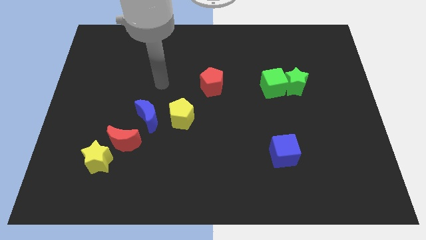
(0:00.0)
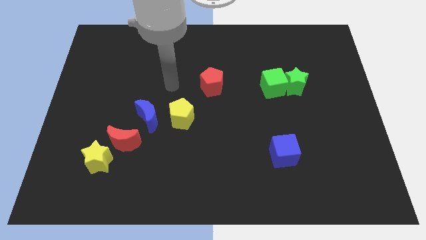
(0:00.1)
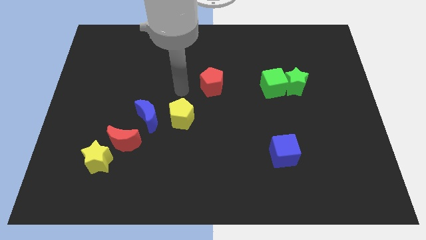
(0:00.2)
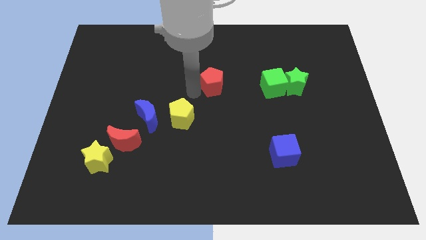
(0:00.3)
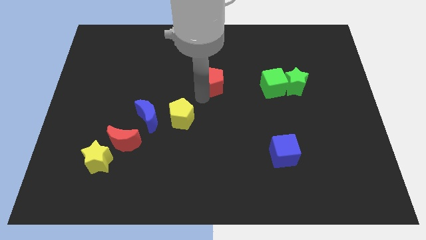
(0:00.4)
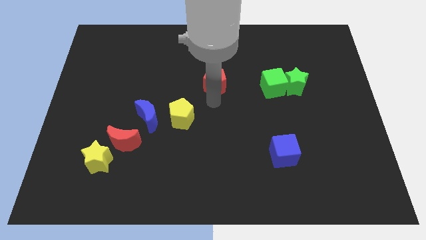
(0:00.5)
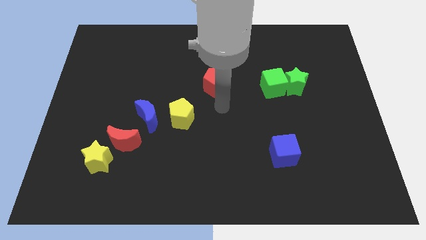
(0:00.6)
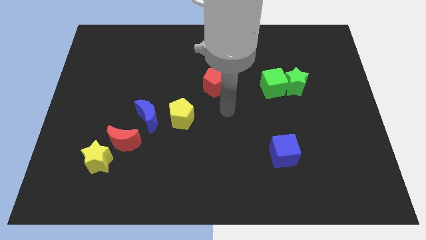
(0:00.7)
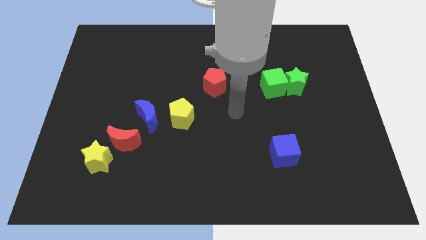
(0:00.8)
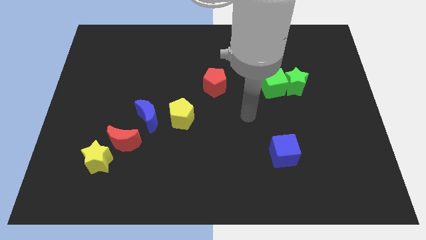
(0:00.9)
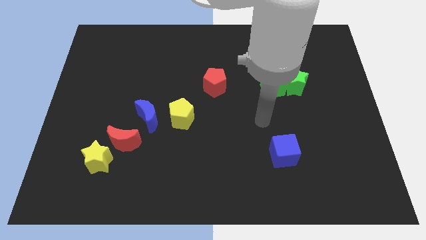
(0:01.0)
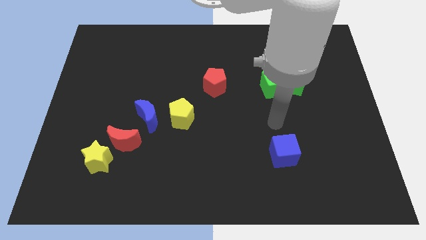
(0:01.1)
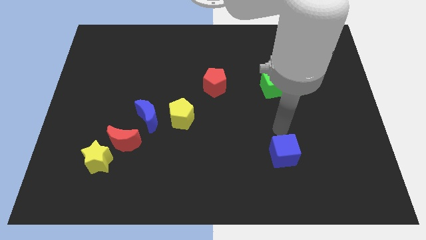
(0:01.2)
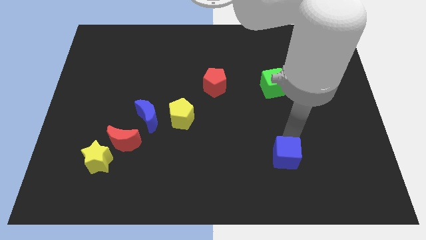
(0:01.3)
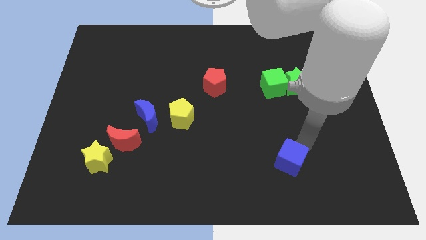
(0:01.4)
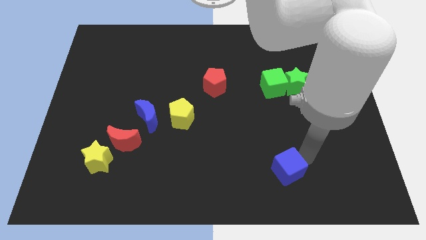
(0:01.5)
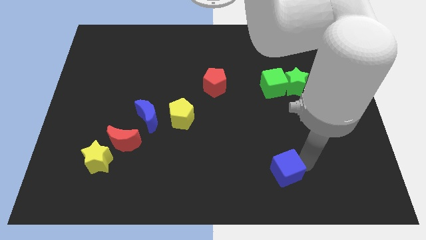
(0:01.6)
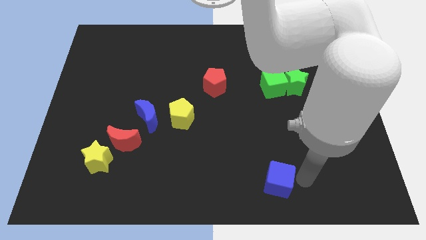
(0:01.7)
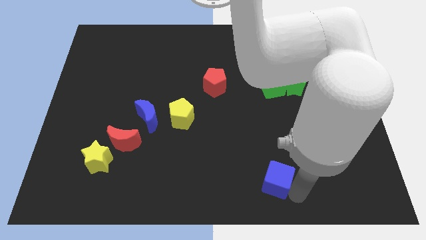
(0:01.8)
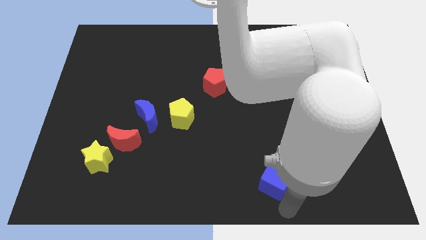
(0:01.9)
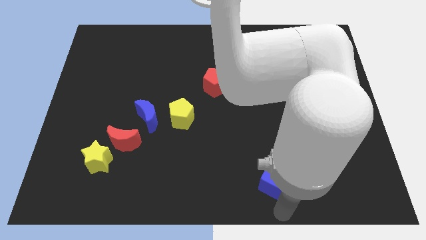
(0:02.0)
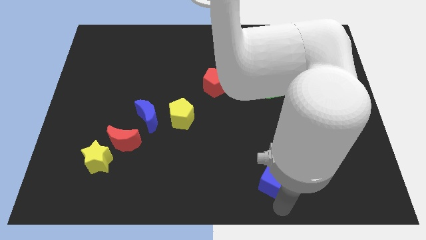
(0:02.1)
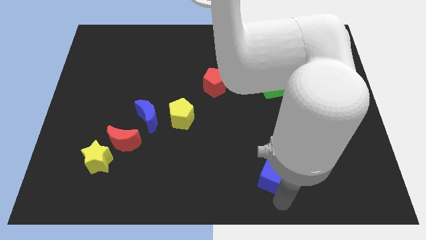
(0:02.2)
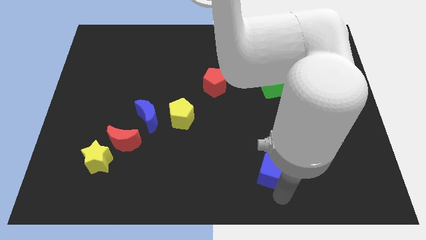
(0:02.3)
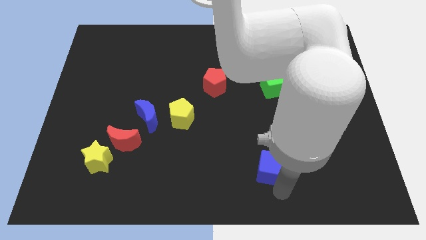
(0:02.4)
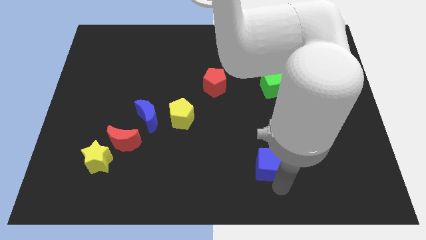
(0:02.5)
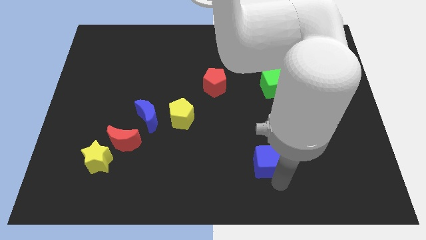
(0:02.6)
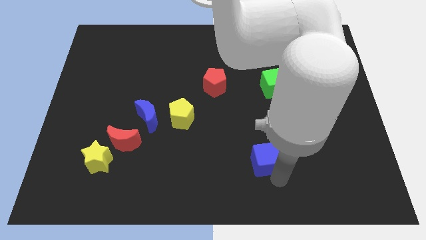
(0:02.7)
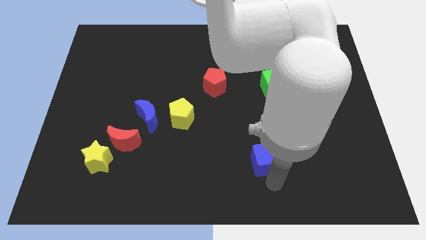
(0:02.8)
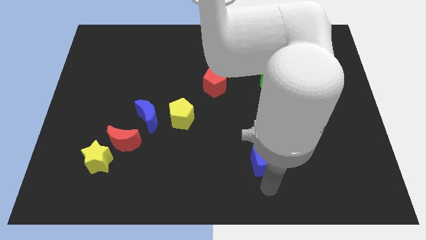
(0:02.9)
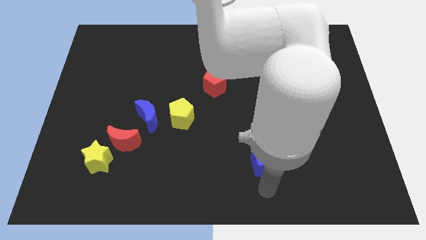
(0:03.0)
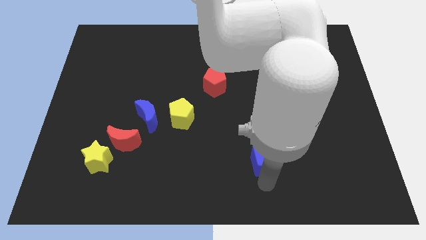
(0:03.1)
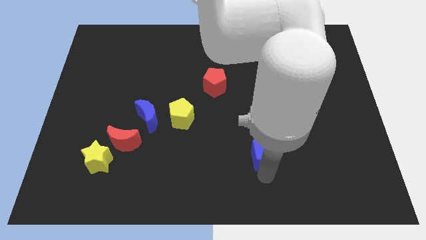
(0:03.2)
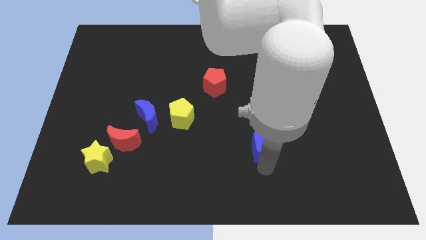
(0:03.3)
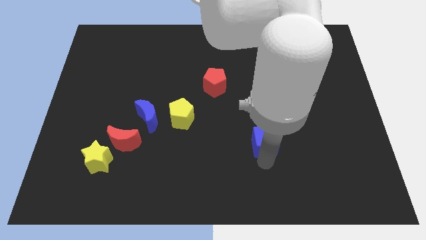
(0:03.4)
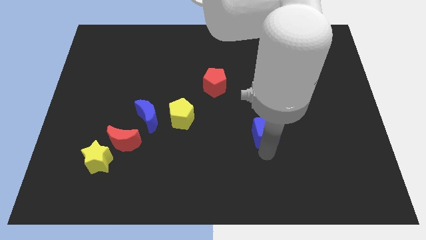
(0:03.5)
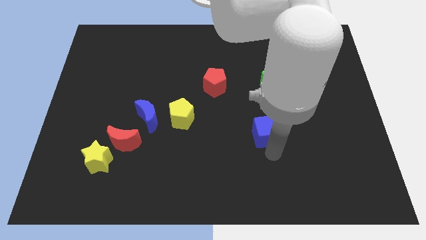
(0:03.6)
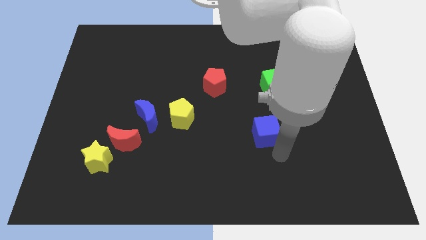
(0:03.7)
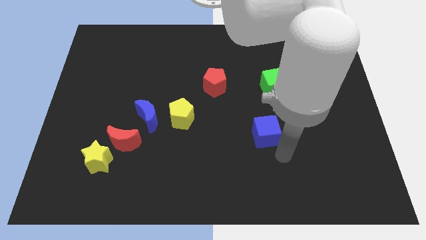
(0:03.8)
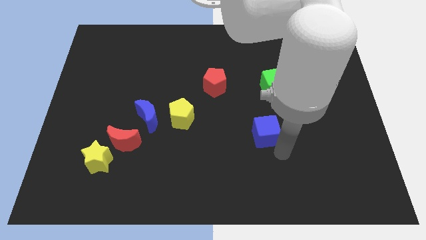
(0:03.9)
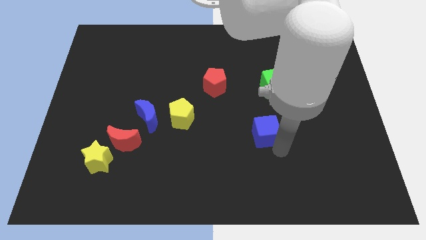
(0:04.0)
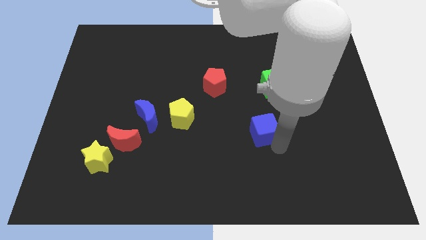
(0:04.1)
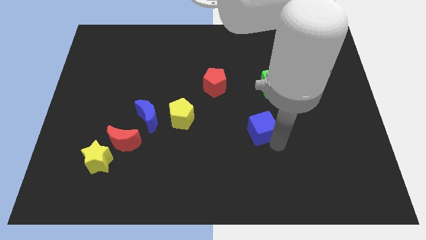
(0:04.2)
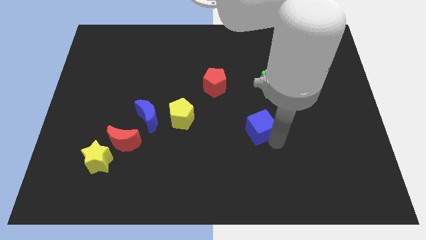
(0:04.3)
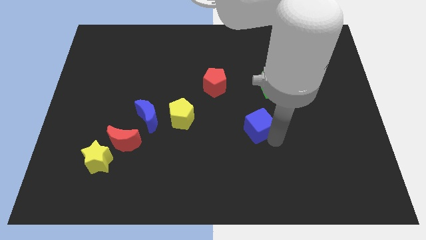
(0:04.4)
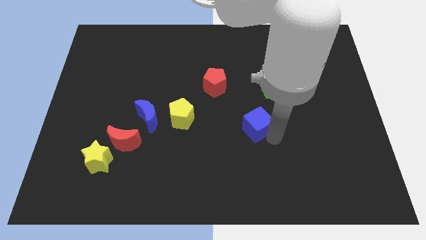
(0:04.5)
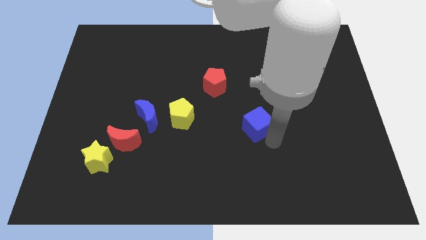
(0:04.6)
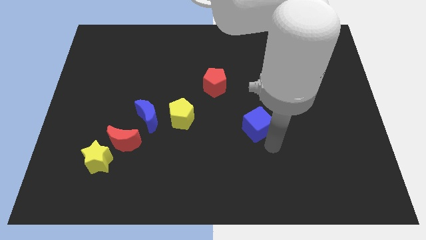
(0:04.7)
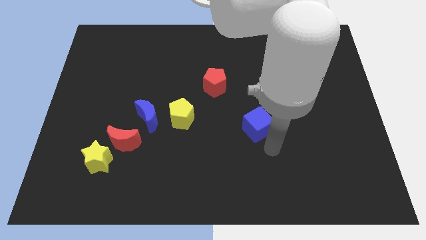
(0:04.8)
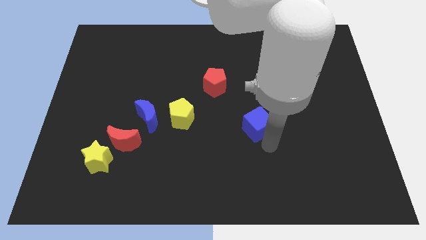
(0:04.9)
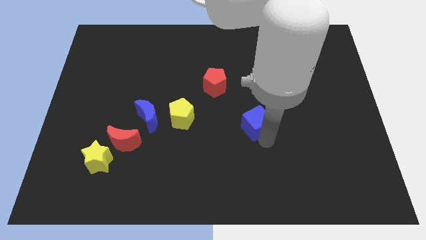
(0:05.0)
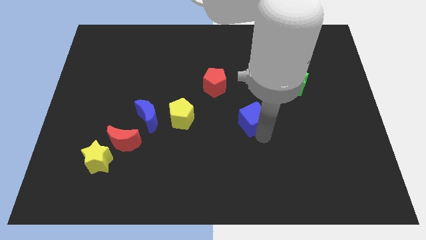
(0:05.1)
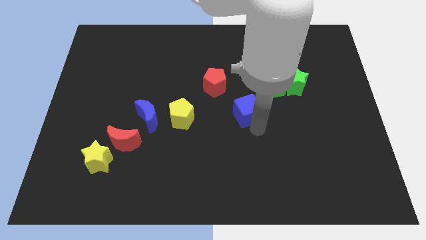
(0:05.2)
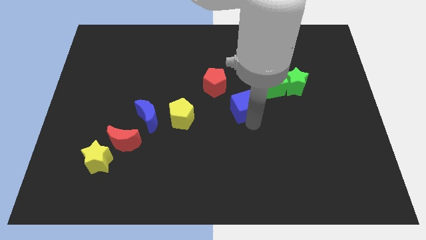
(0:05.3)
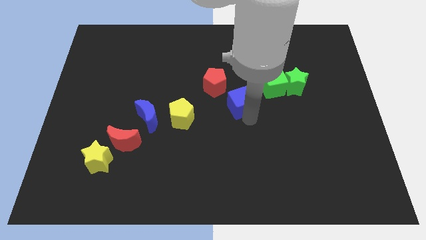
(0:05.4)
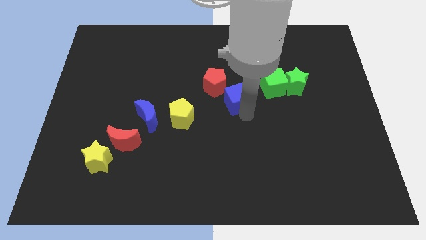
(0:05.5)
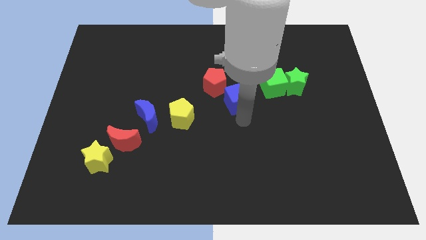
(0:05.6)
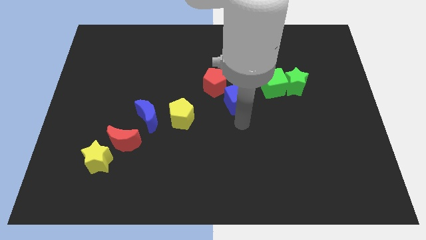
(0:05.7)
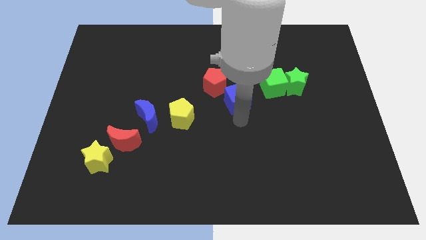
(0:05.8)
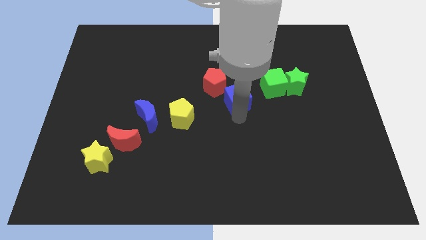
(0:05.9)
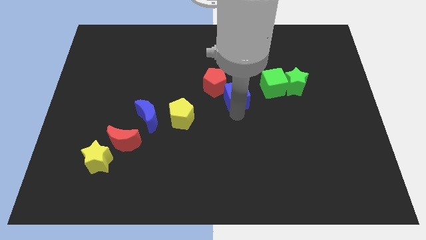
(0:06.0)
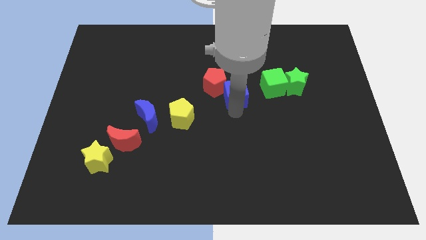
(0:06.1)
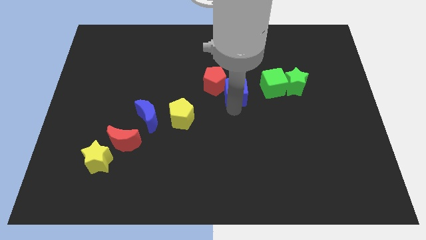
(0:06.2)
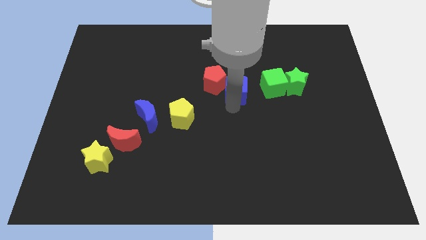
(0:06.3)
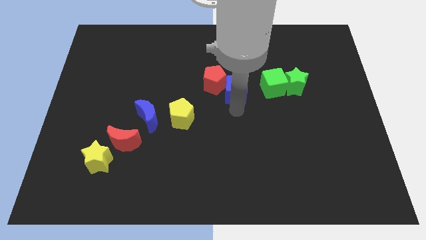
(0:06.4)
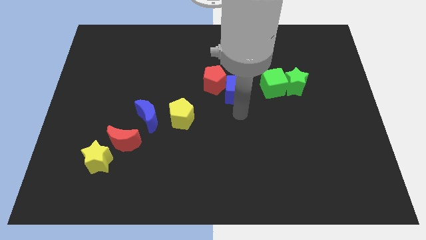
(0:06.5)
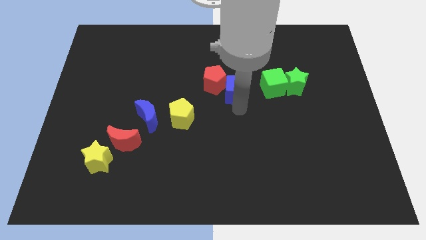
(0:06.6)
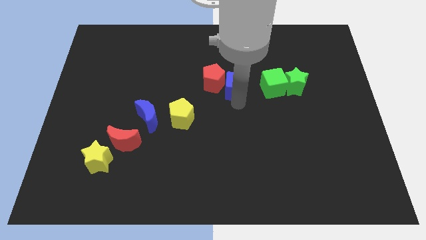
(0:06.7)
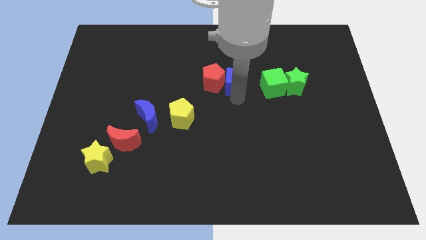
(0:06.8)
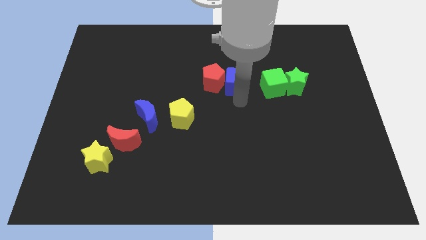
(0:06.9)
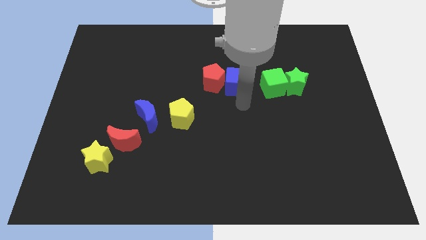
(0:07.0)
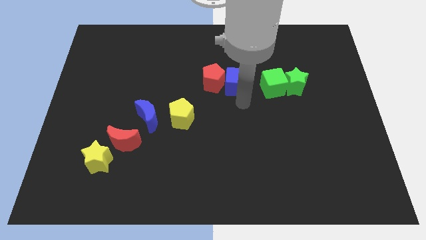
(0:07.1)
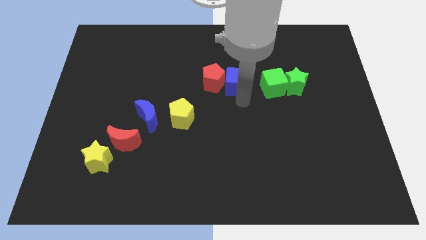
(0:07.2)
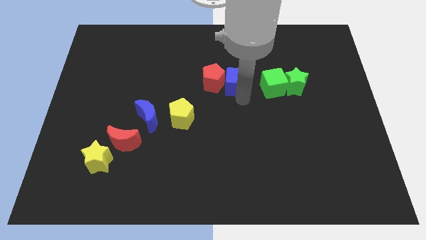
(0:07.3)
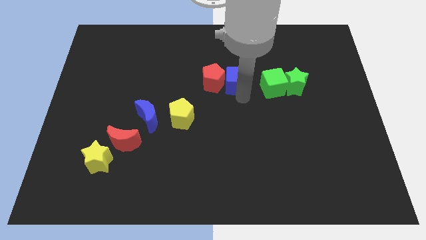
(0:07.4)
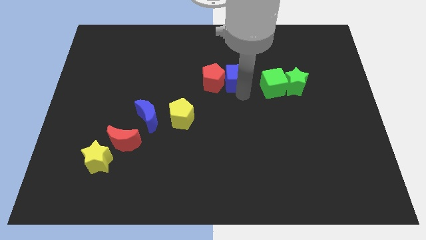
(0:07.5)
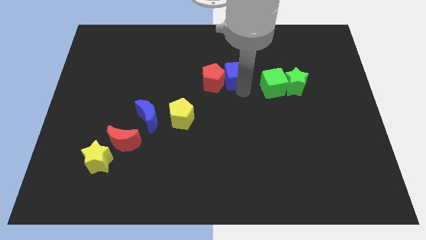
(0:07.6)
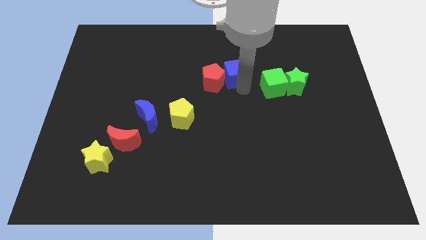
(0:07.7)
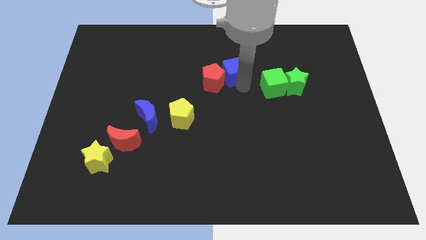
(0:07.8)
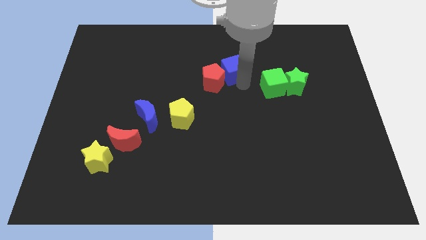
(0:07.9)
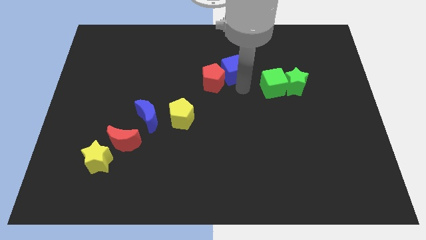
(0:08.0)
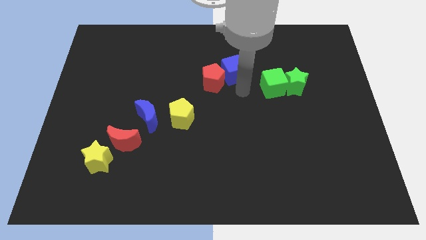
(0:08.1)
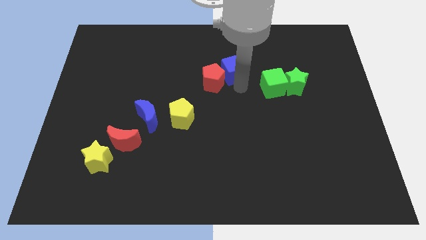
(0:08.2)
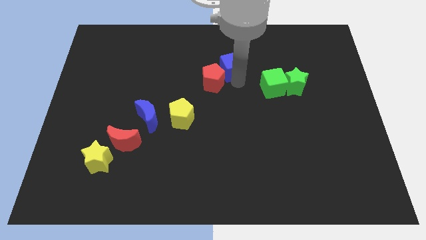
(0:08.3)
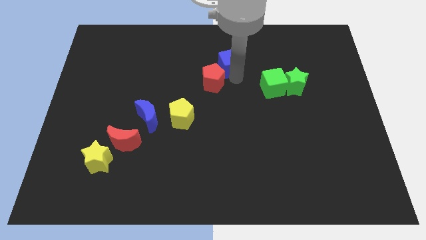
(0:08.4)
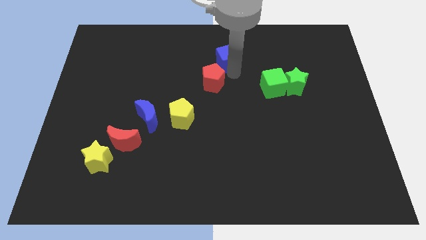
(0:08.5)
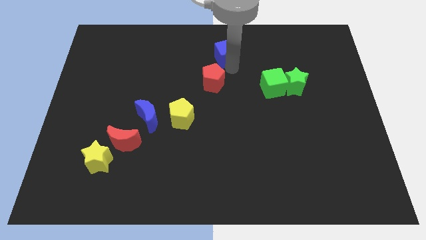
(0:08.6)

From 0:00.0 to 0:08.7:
move the blue cube to the top side
